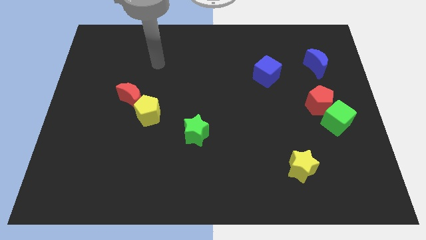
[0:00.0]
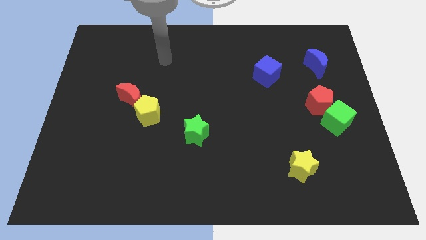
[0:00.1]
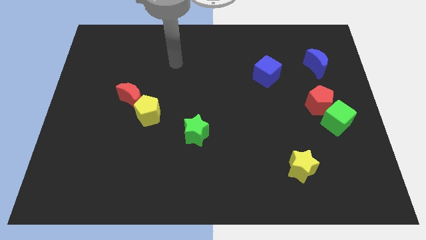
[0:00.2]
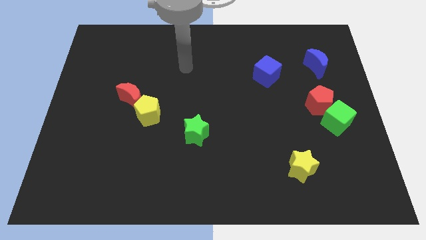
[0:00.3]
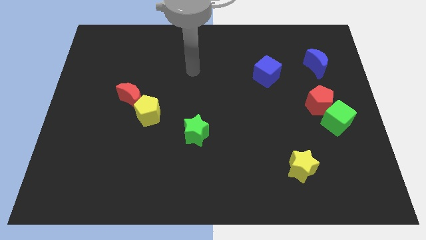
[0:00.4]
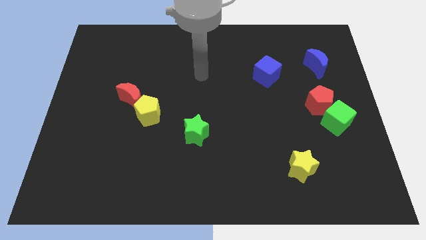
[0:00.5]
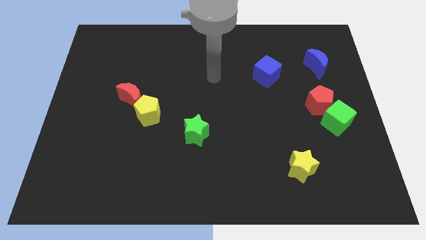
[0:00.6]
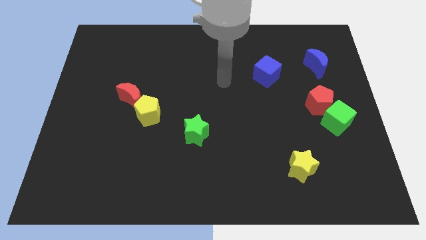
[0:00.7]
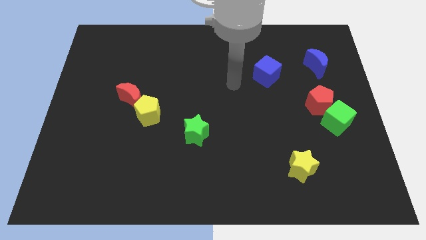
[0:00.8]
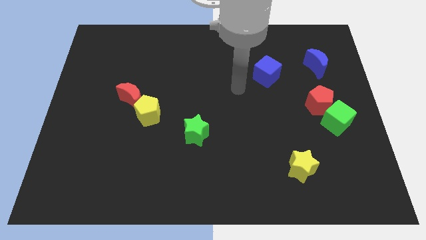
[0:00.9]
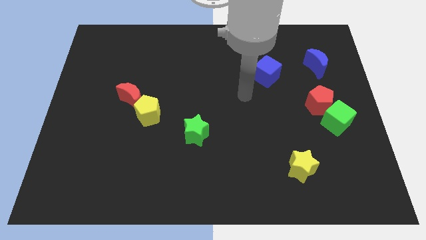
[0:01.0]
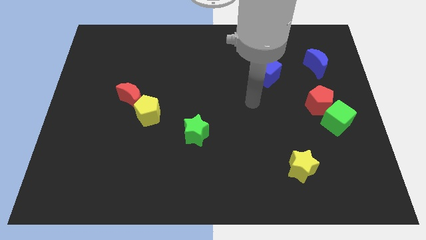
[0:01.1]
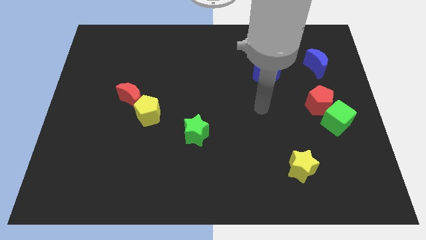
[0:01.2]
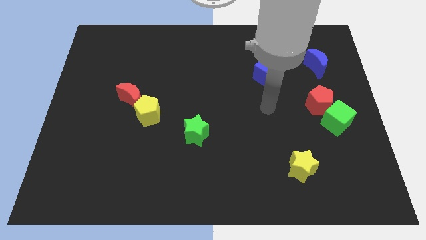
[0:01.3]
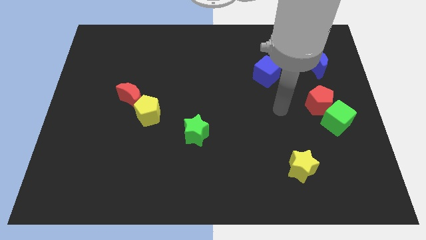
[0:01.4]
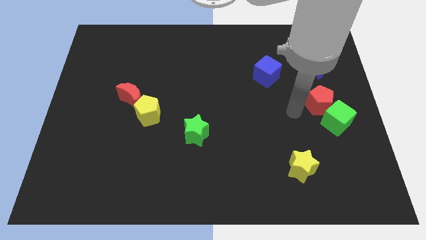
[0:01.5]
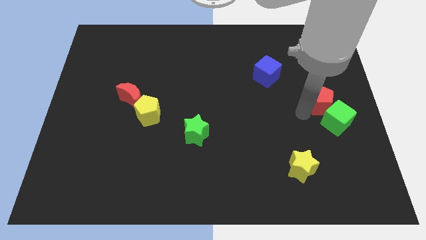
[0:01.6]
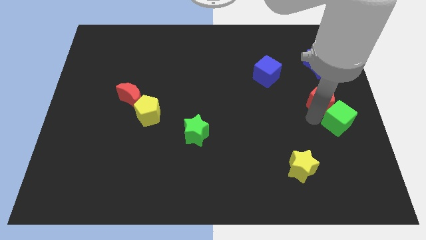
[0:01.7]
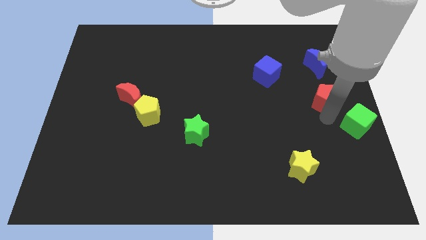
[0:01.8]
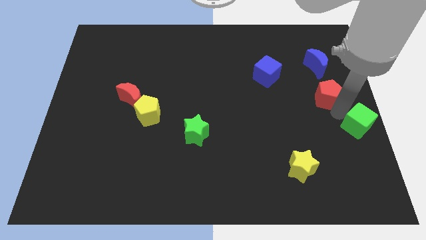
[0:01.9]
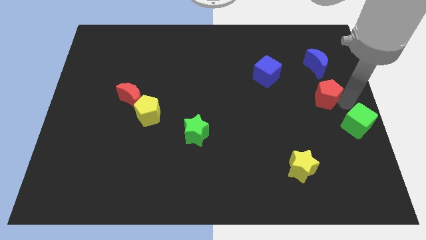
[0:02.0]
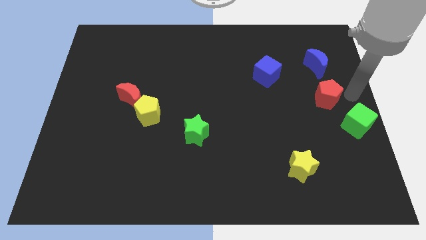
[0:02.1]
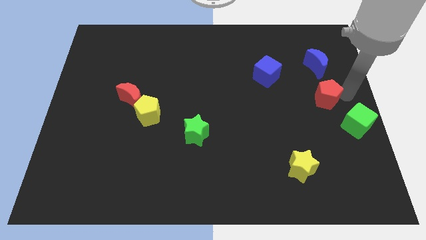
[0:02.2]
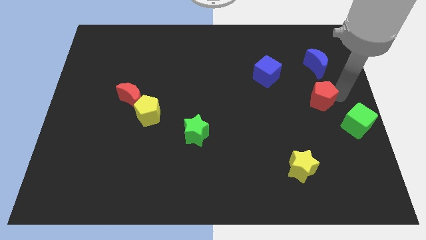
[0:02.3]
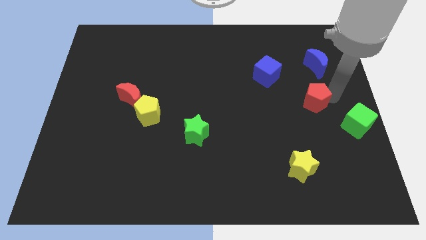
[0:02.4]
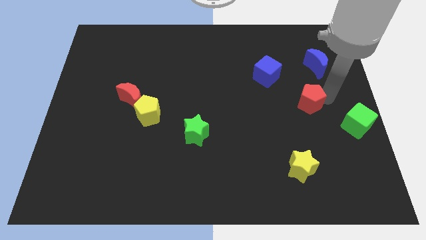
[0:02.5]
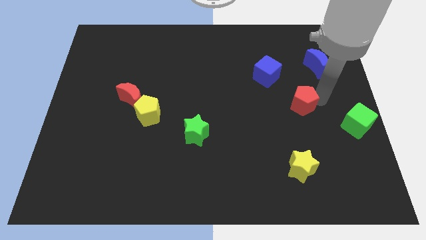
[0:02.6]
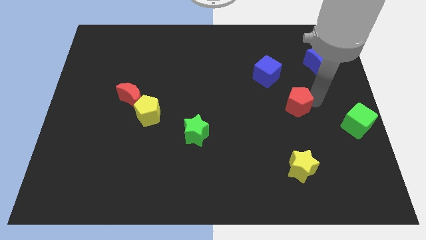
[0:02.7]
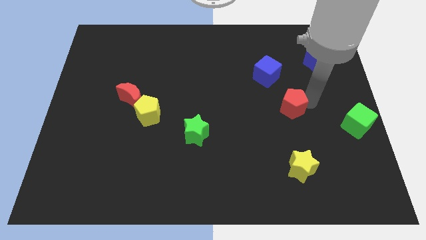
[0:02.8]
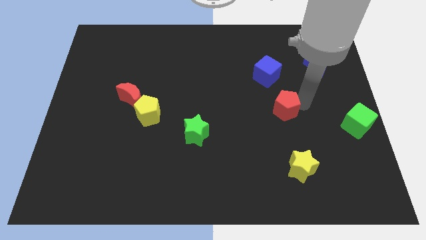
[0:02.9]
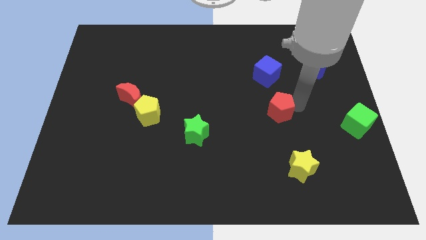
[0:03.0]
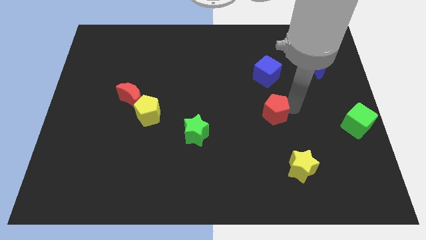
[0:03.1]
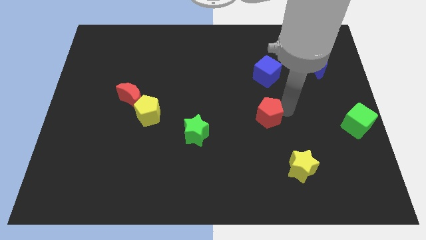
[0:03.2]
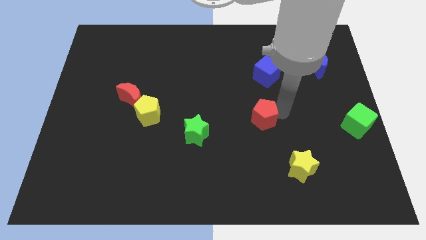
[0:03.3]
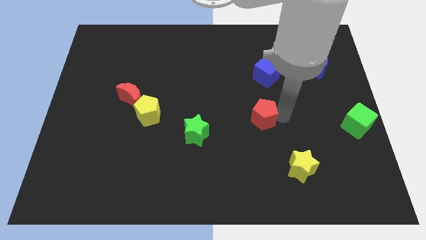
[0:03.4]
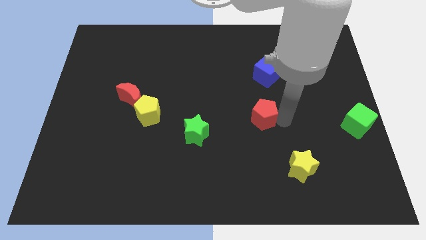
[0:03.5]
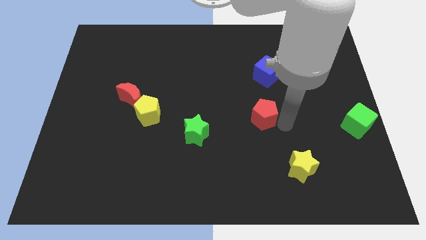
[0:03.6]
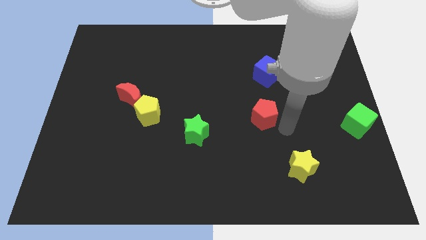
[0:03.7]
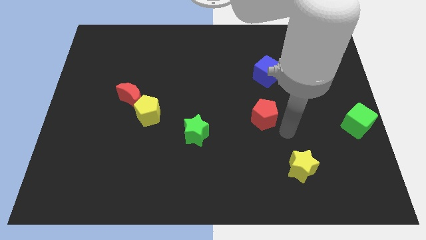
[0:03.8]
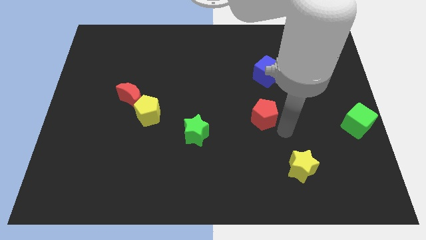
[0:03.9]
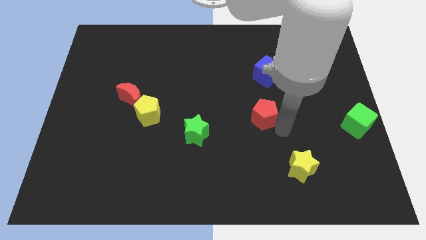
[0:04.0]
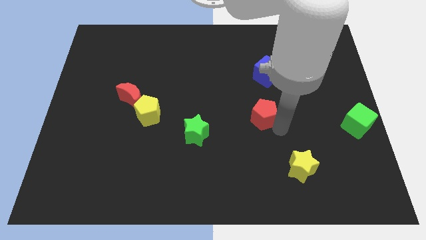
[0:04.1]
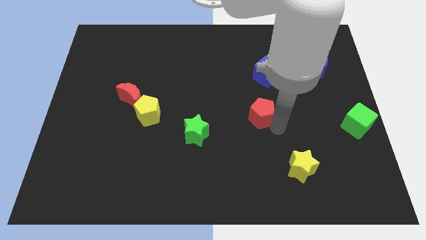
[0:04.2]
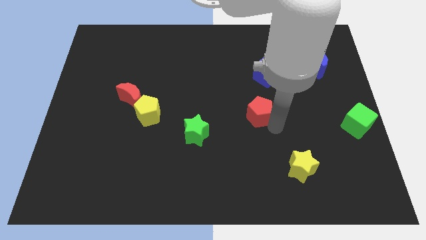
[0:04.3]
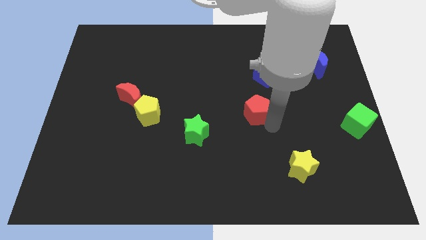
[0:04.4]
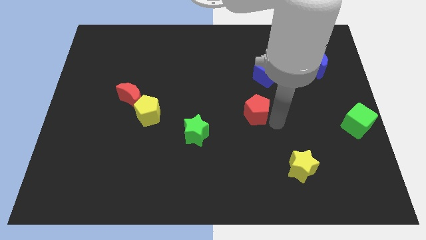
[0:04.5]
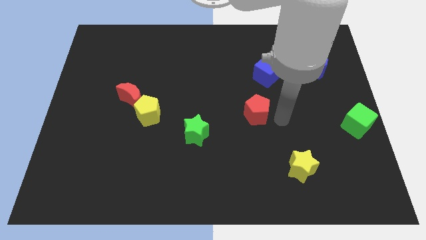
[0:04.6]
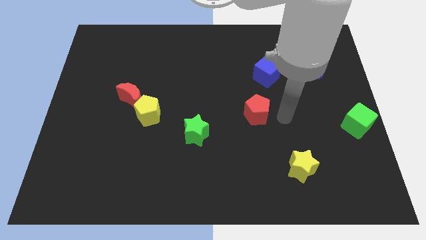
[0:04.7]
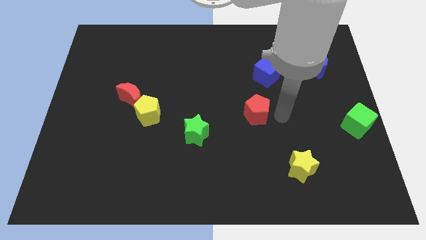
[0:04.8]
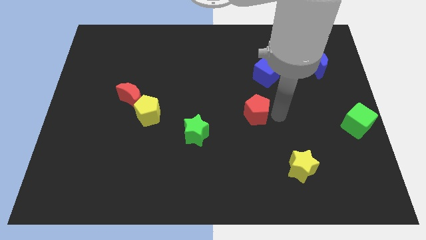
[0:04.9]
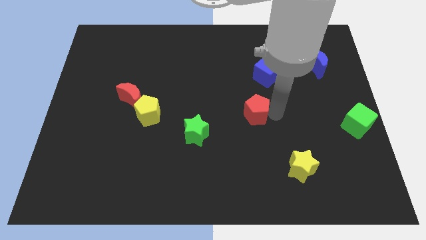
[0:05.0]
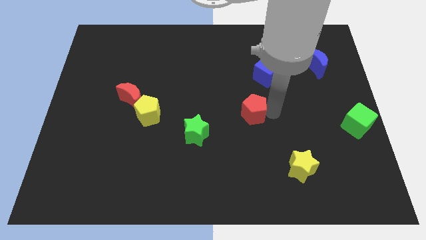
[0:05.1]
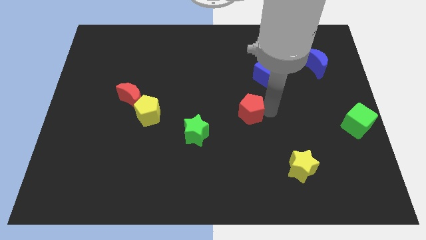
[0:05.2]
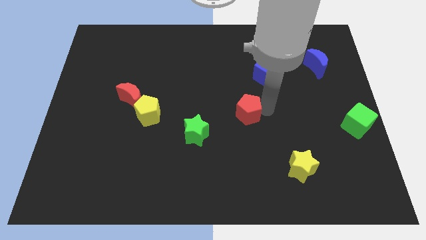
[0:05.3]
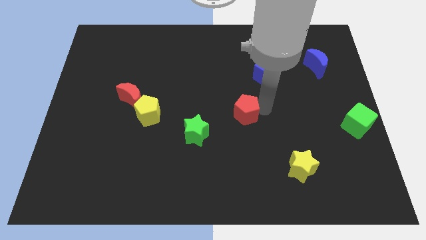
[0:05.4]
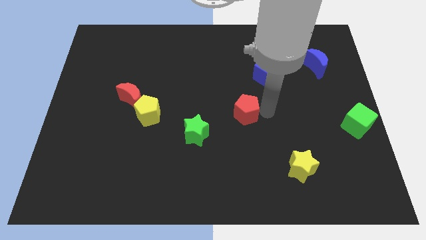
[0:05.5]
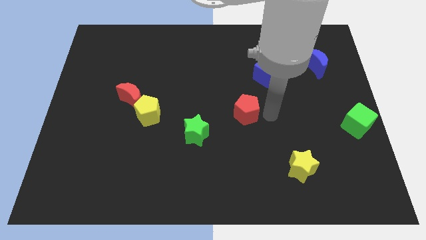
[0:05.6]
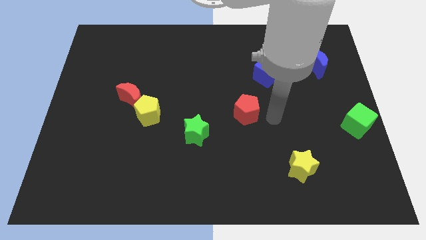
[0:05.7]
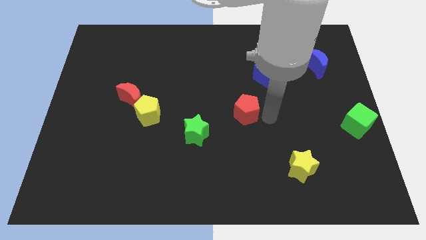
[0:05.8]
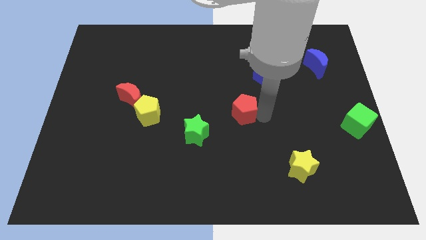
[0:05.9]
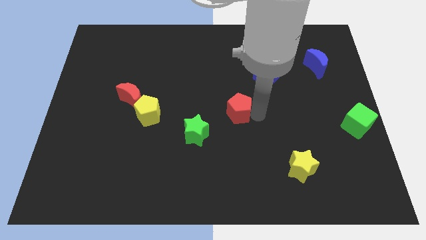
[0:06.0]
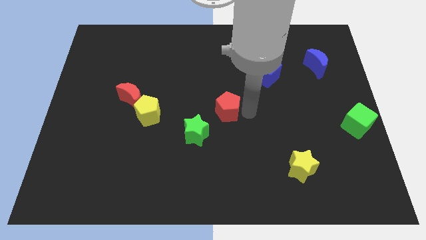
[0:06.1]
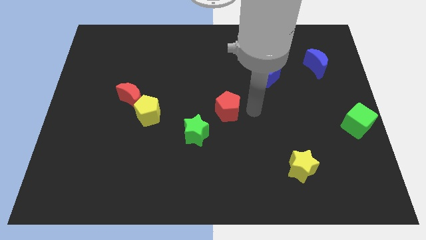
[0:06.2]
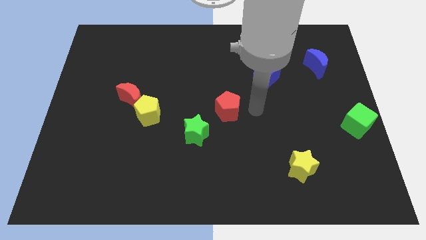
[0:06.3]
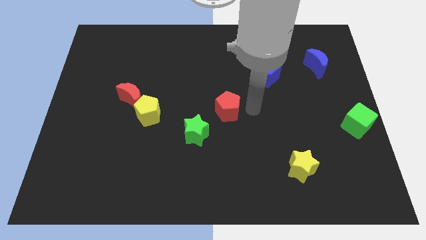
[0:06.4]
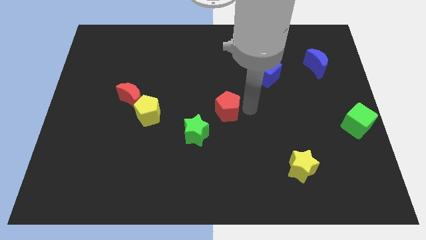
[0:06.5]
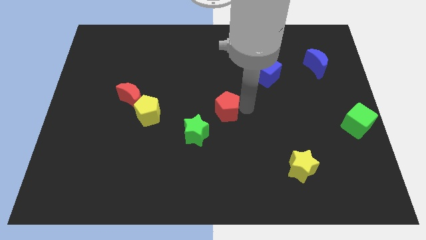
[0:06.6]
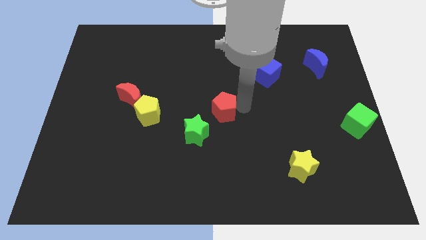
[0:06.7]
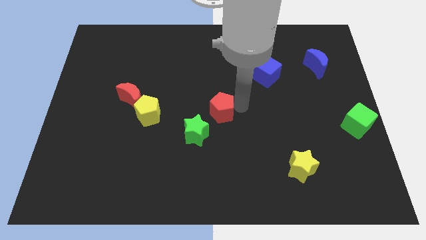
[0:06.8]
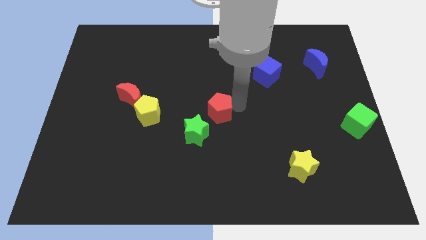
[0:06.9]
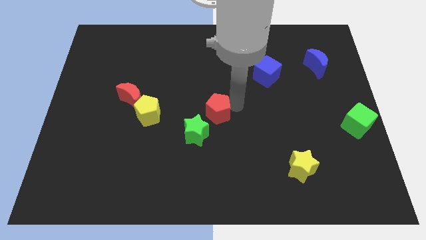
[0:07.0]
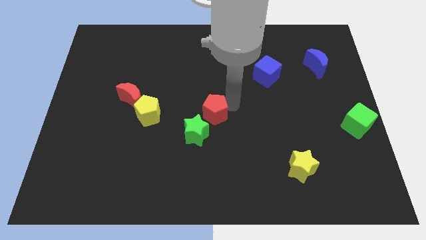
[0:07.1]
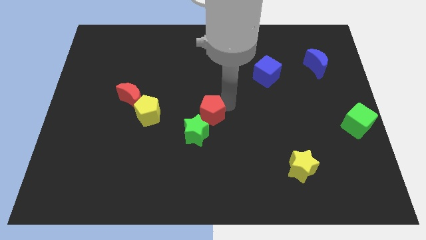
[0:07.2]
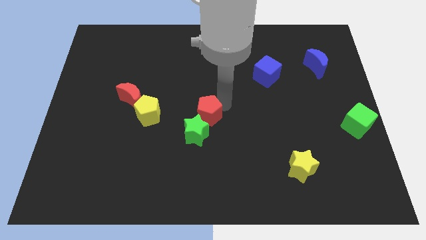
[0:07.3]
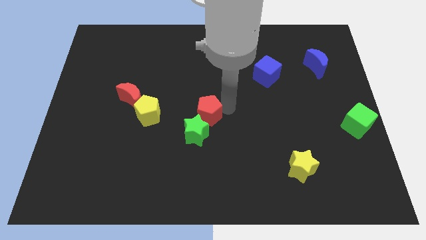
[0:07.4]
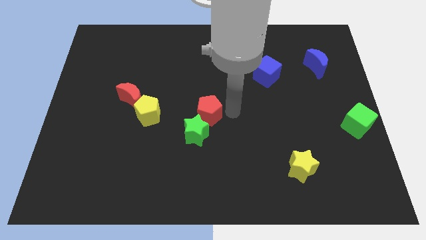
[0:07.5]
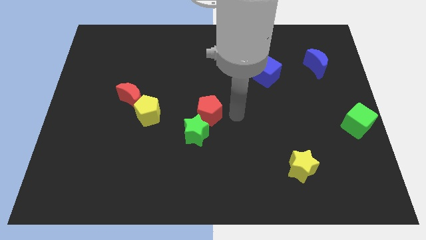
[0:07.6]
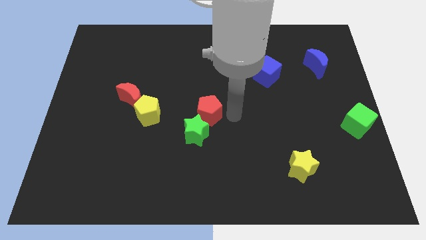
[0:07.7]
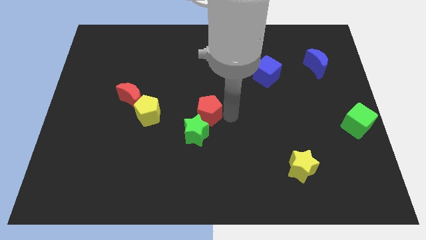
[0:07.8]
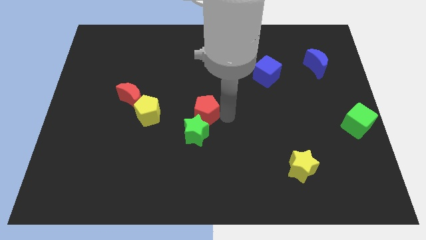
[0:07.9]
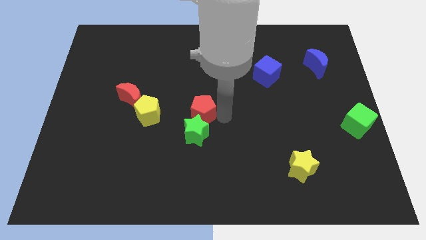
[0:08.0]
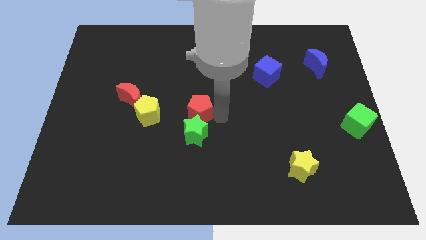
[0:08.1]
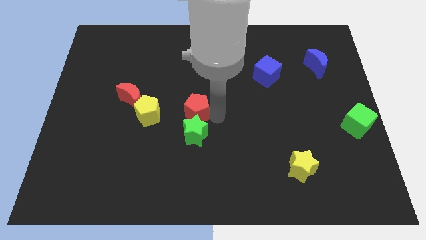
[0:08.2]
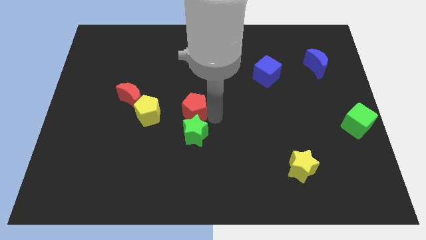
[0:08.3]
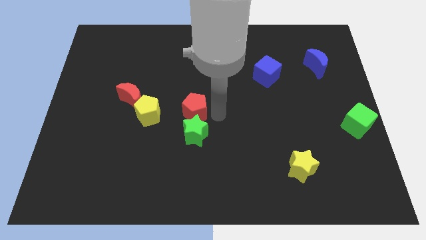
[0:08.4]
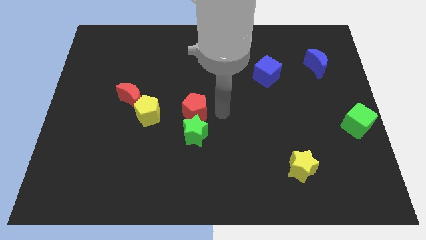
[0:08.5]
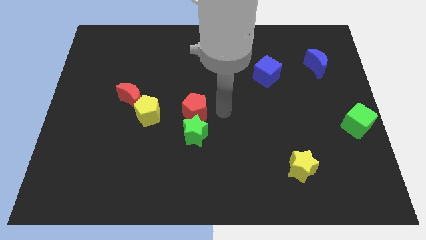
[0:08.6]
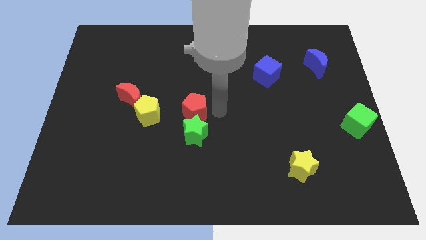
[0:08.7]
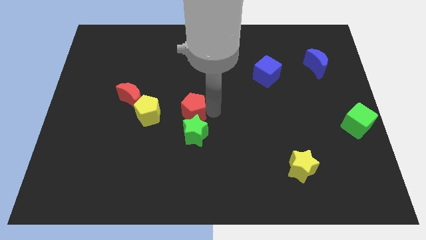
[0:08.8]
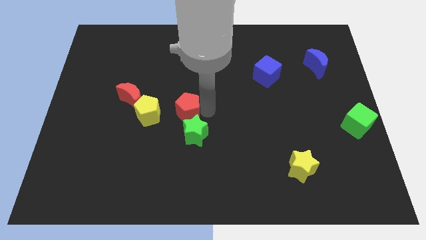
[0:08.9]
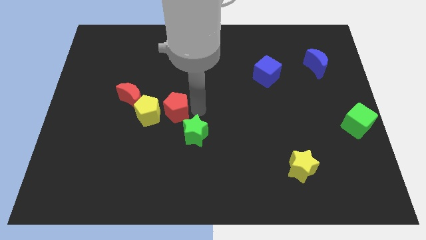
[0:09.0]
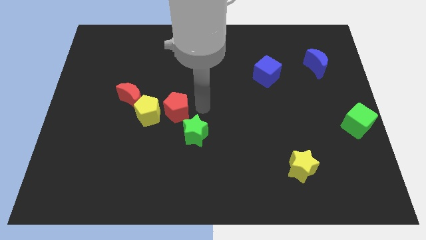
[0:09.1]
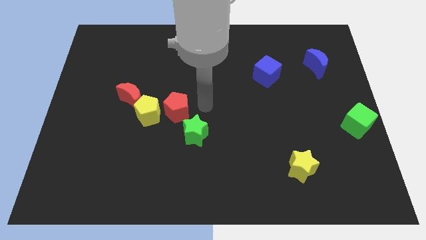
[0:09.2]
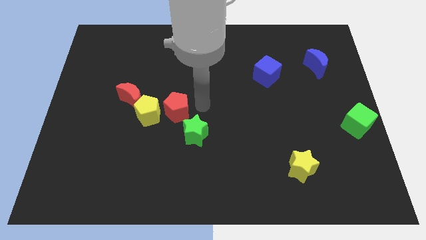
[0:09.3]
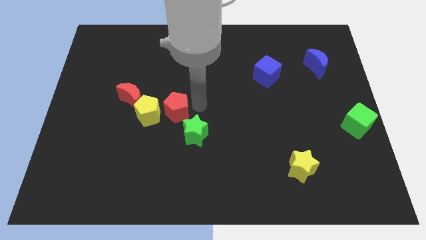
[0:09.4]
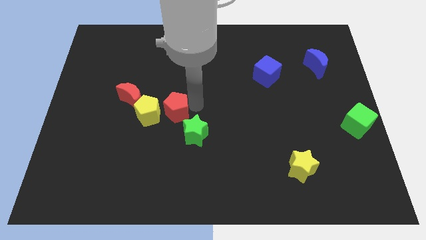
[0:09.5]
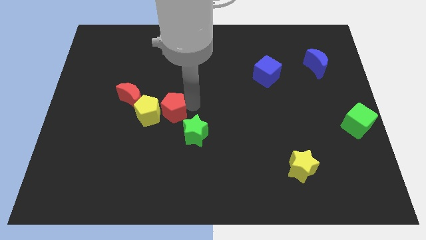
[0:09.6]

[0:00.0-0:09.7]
slide the red pentagon towards the yellow pentagon
